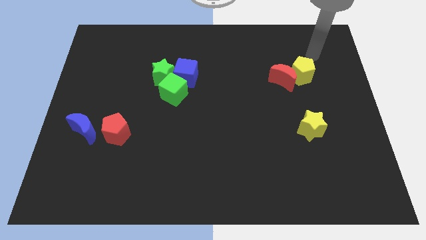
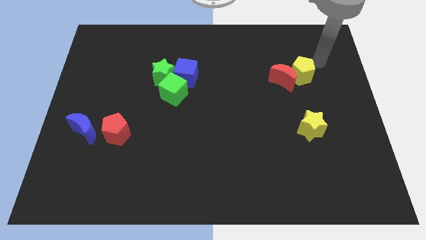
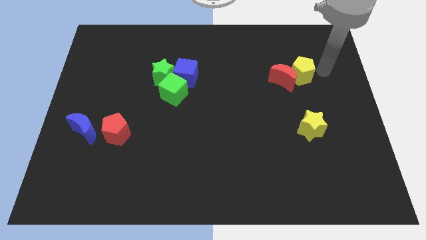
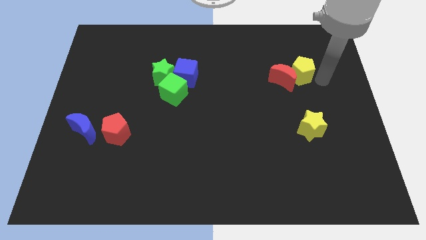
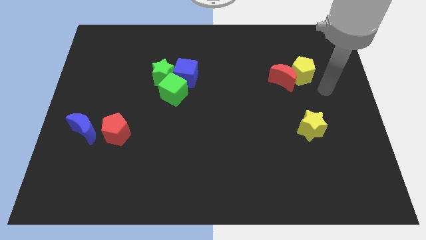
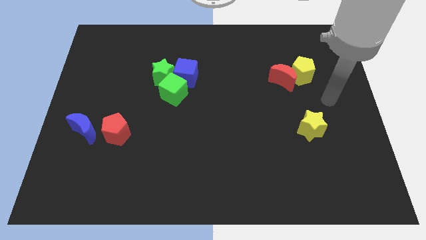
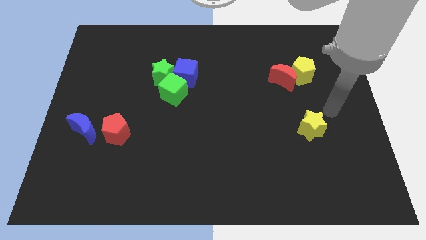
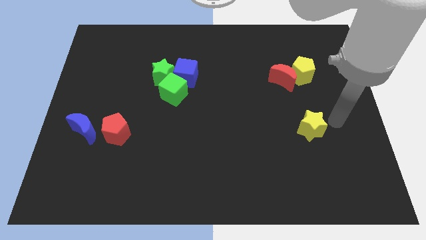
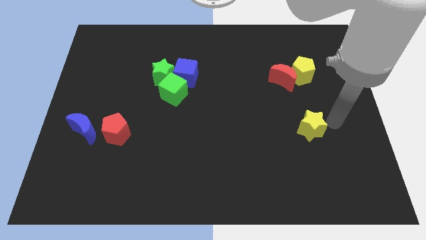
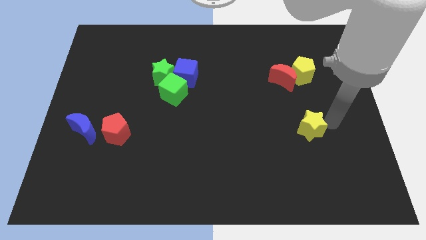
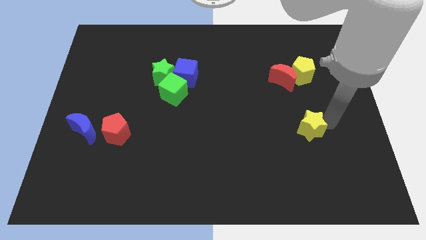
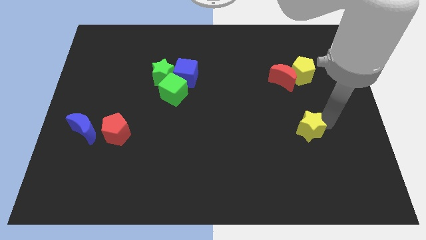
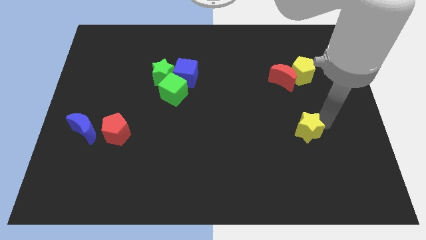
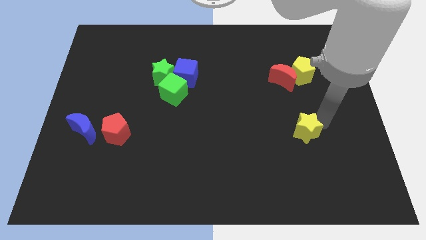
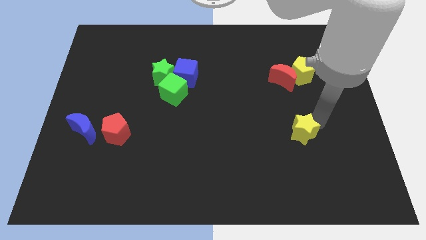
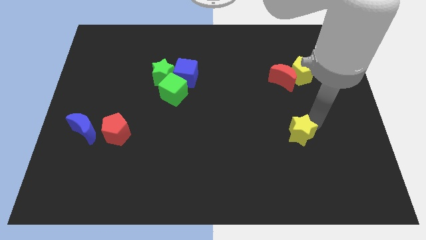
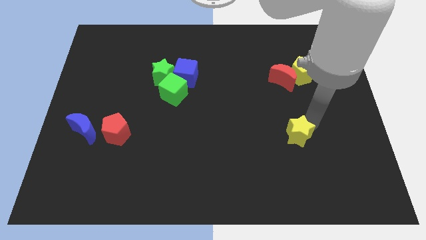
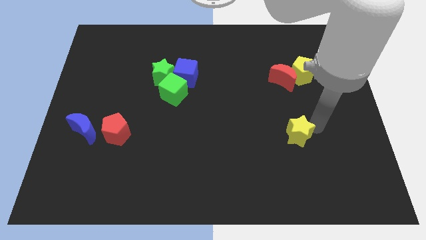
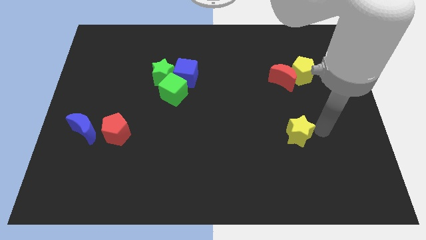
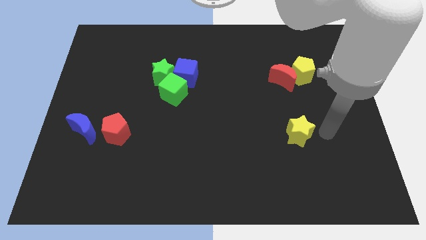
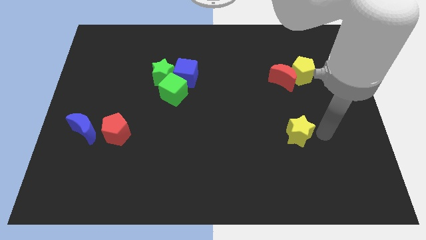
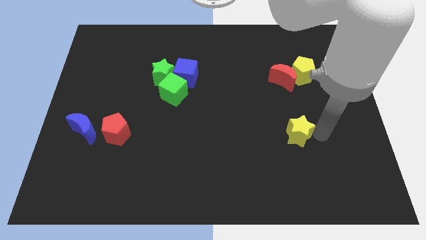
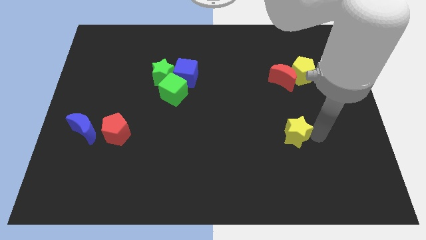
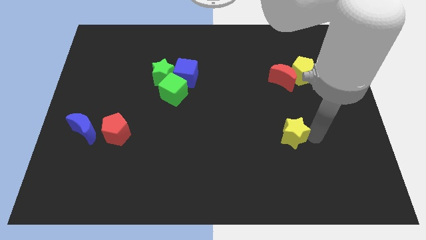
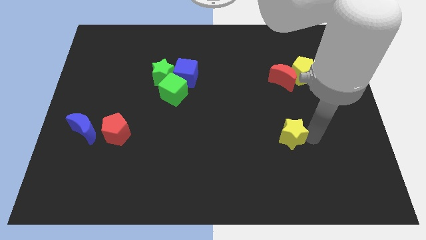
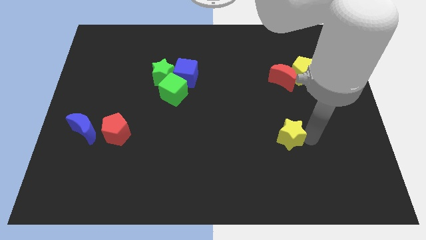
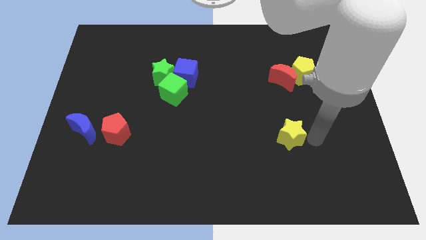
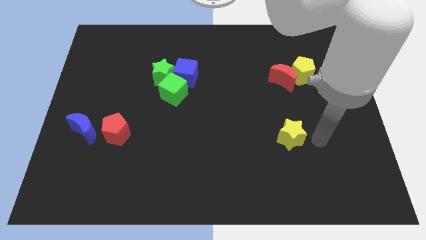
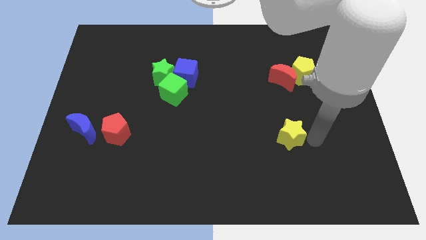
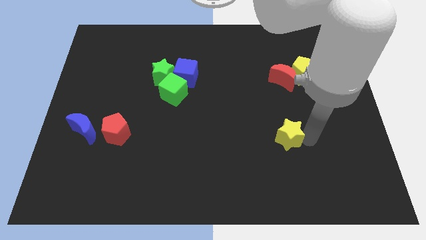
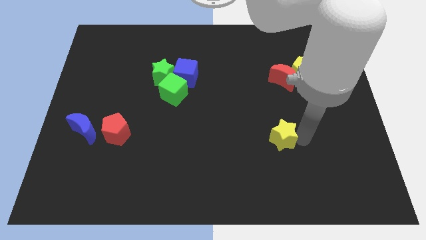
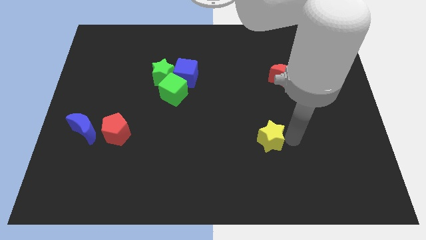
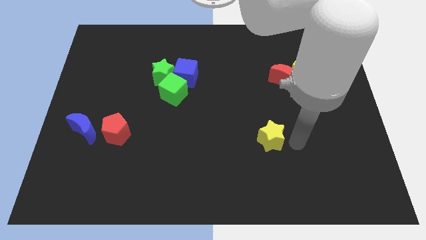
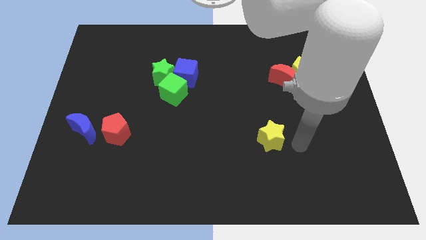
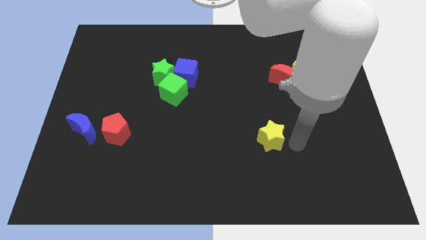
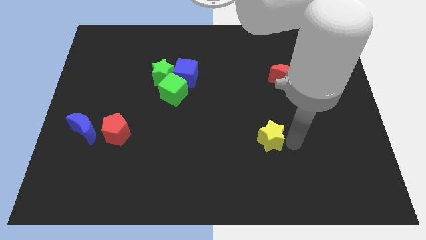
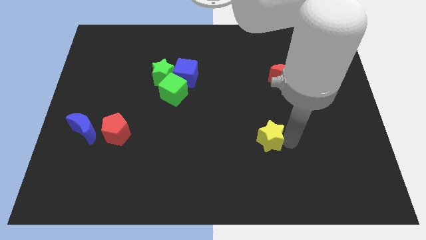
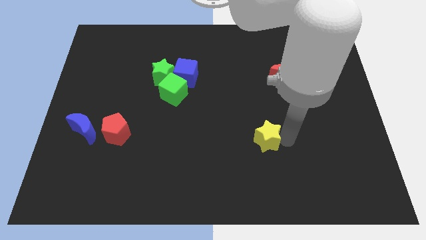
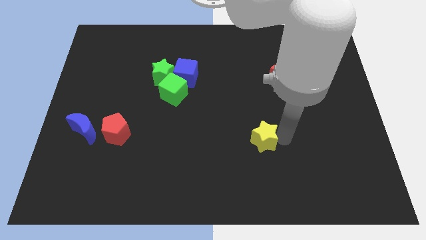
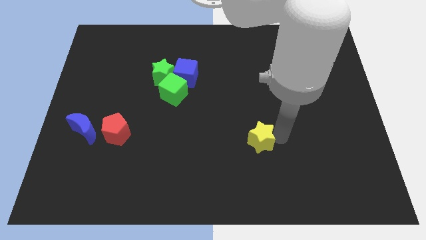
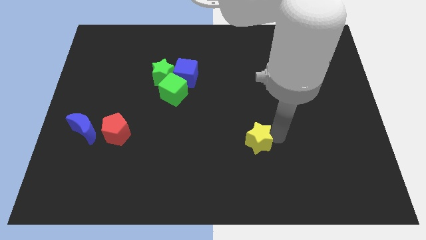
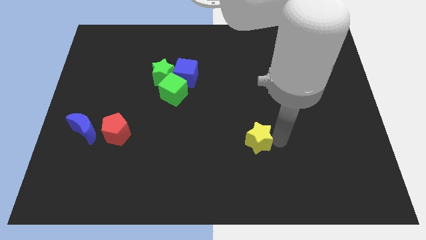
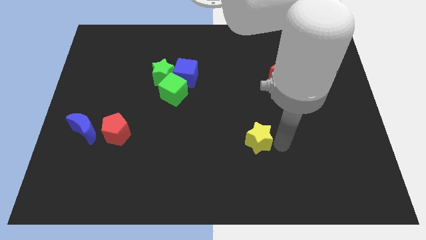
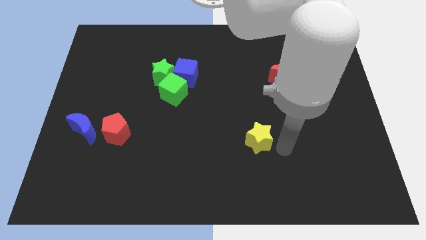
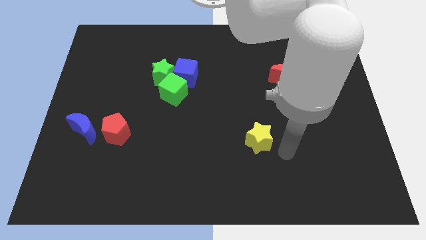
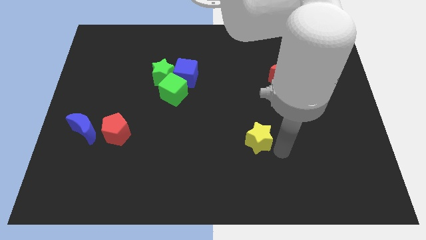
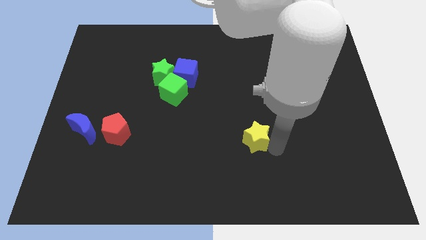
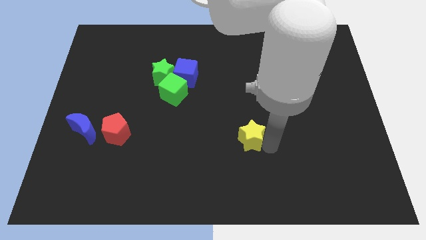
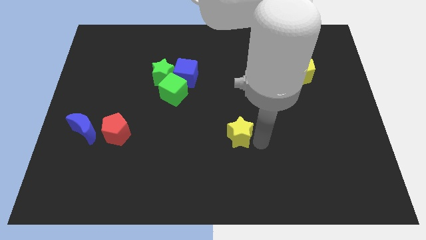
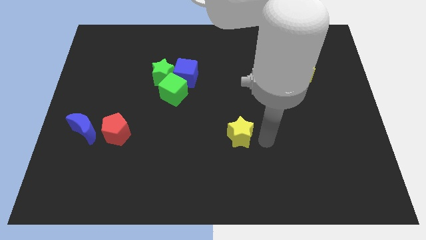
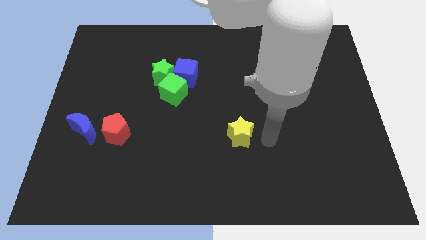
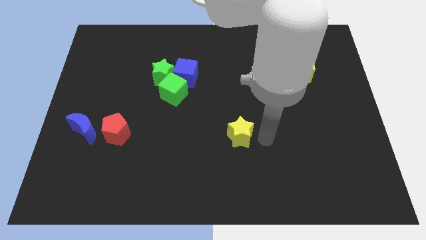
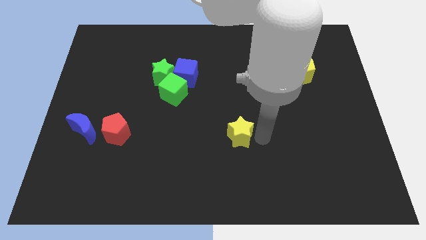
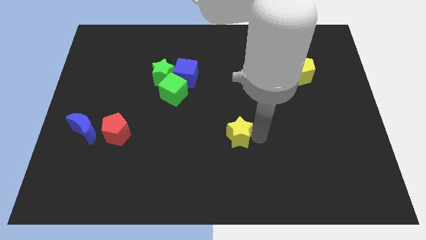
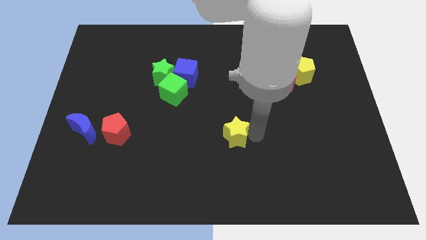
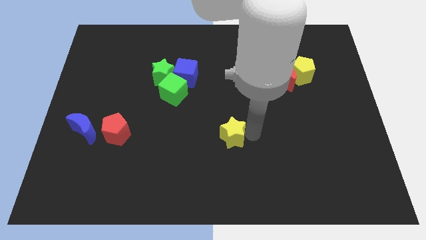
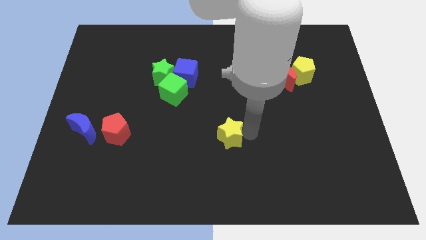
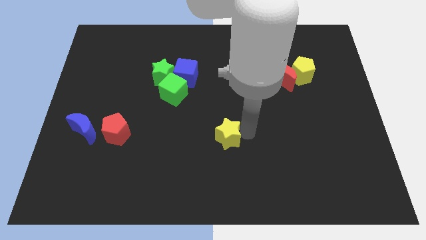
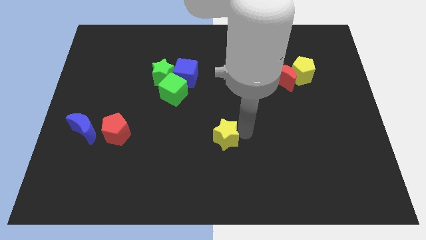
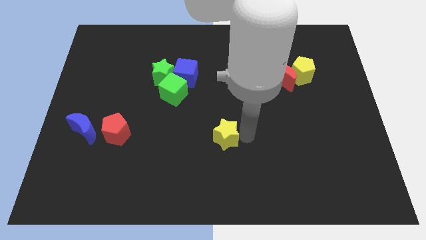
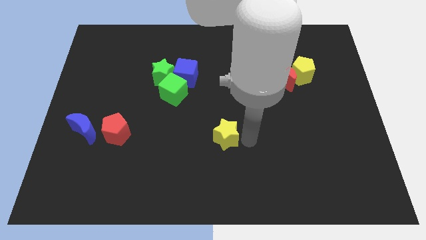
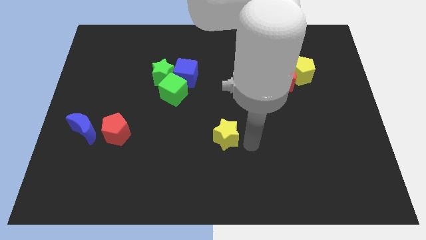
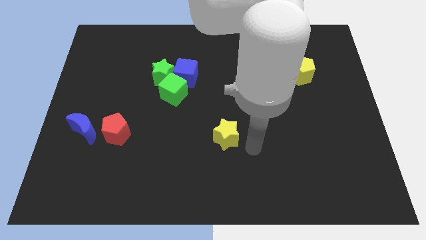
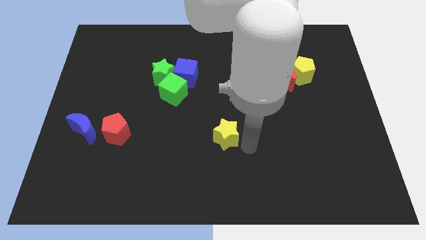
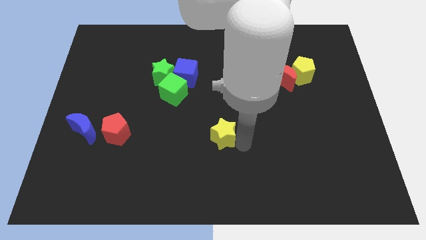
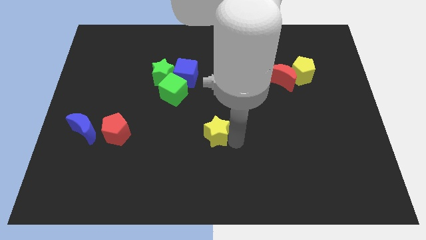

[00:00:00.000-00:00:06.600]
move the yellow star left

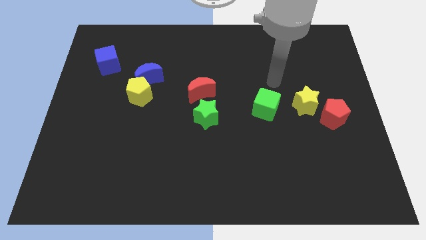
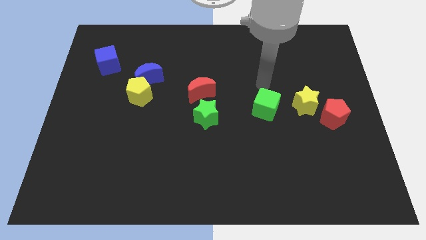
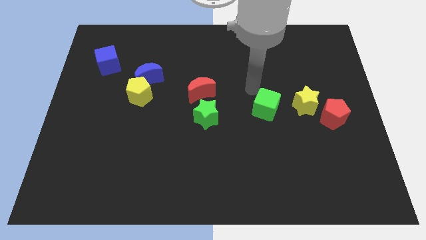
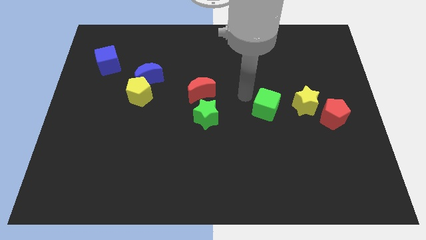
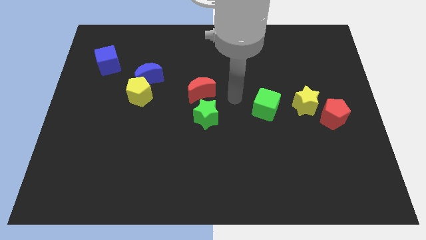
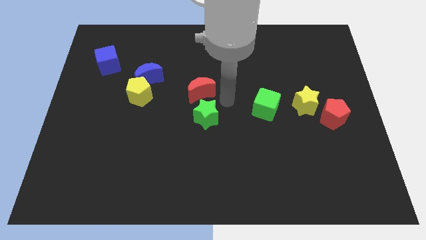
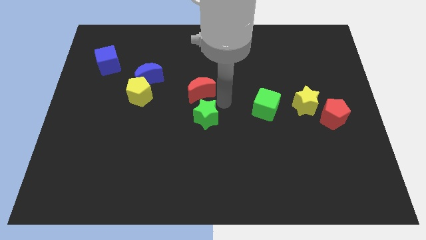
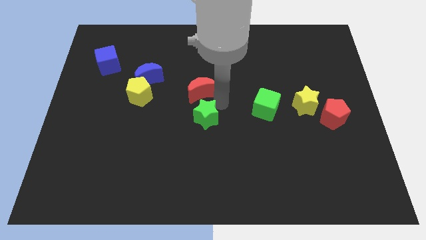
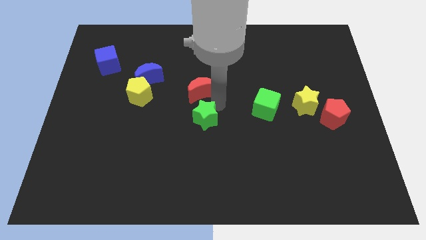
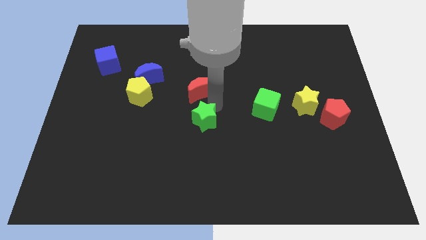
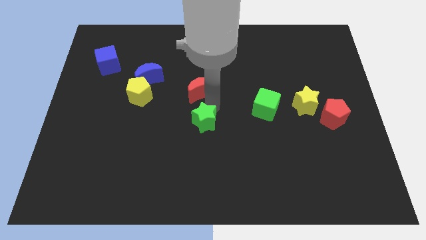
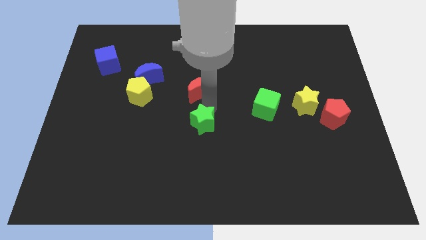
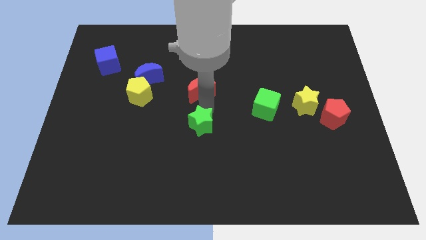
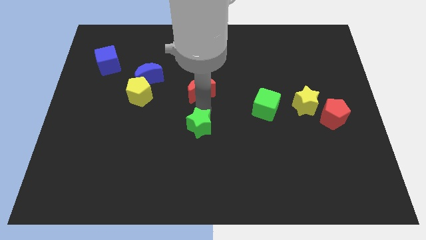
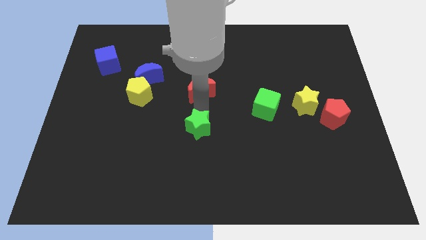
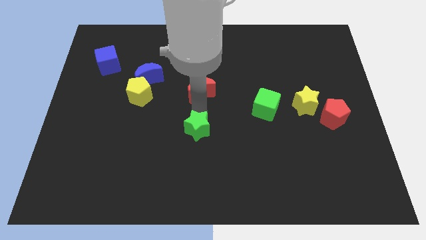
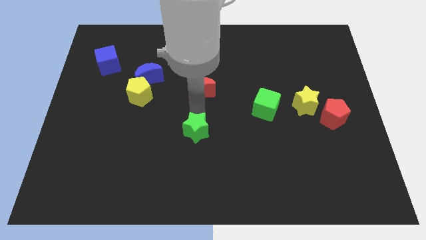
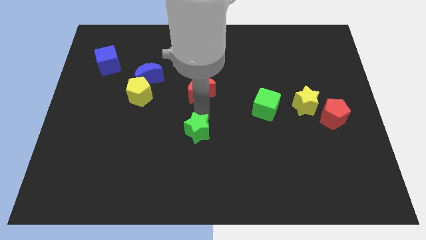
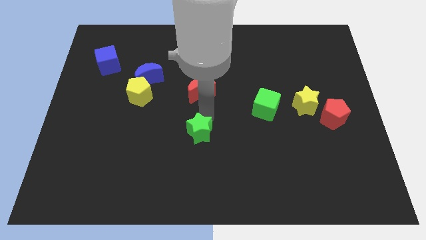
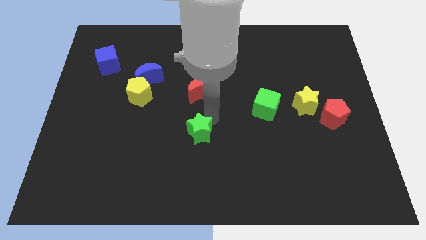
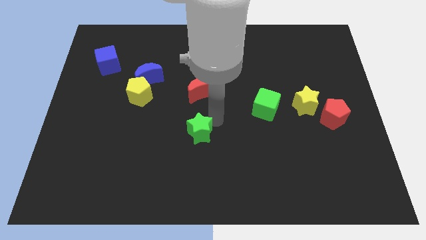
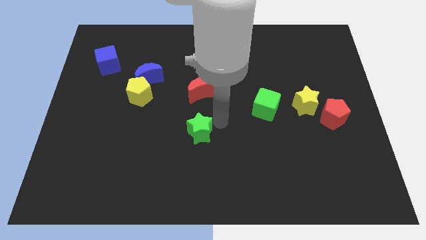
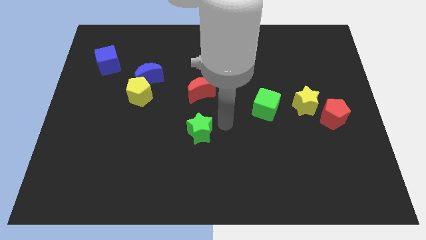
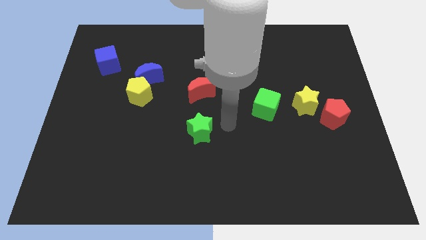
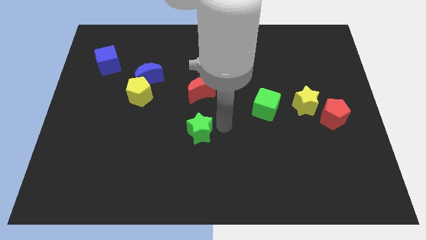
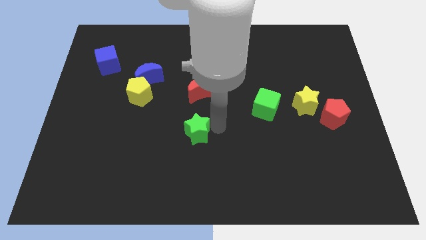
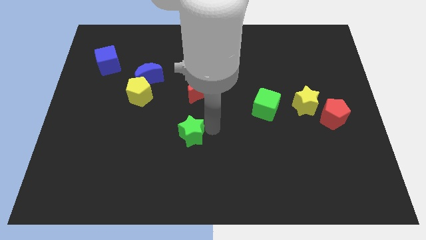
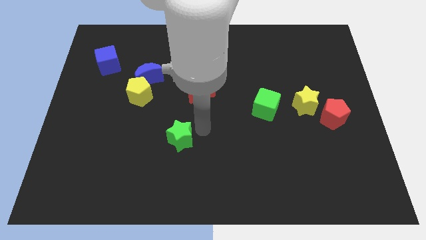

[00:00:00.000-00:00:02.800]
slightly slide the green star downwards and left
